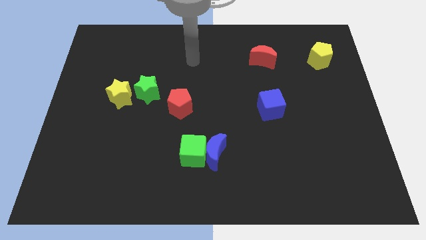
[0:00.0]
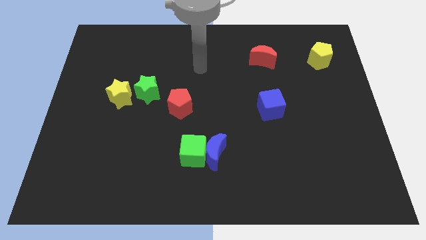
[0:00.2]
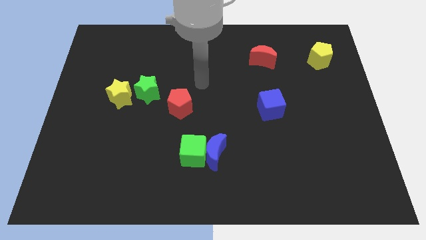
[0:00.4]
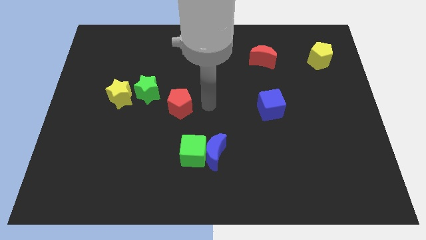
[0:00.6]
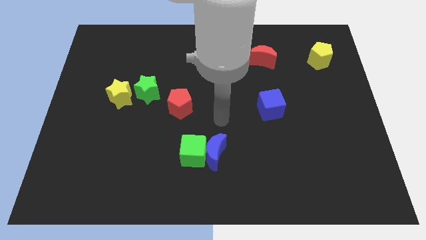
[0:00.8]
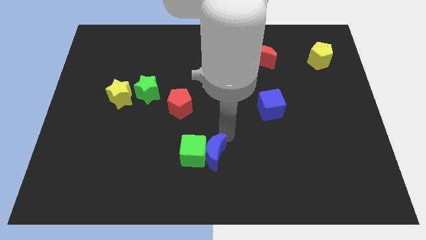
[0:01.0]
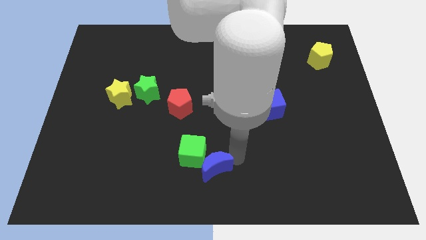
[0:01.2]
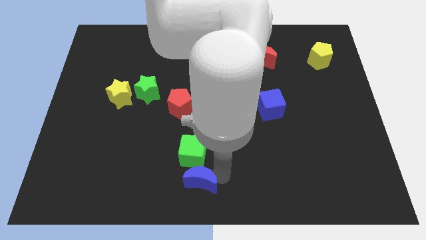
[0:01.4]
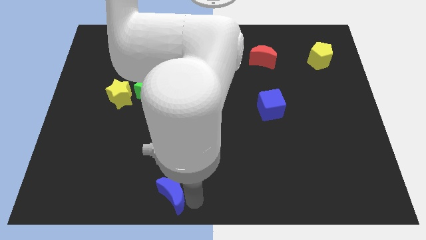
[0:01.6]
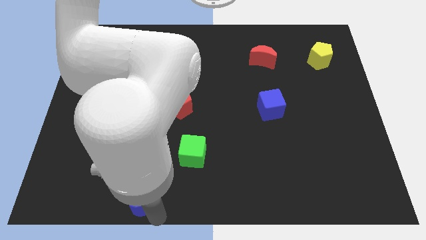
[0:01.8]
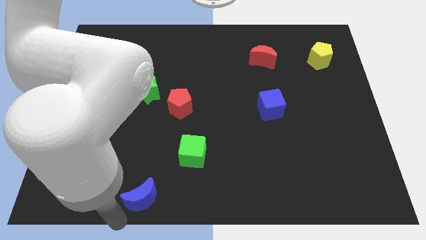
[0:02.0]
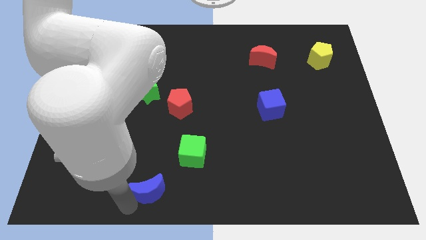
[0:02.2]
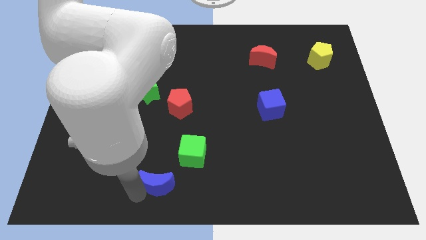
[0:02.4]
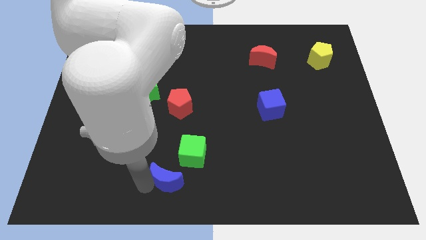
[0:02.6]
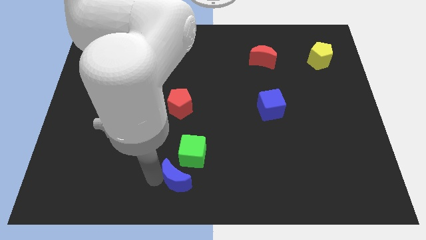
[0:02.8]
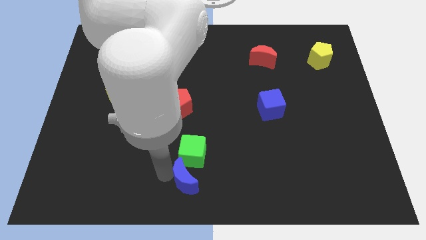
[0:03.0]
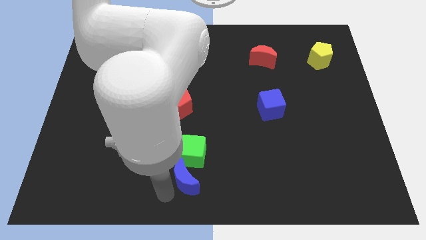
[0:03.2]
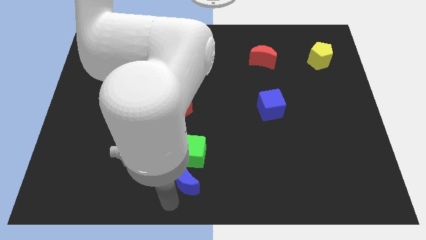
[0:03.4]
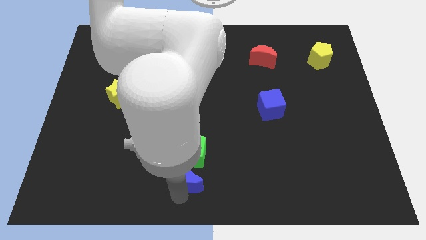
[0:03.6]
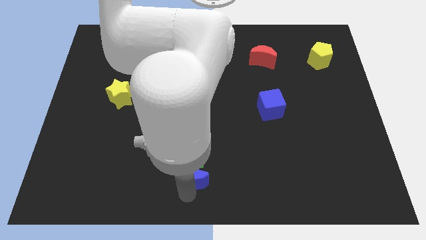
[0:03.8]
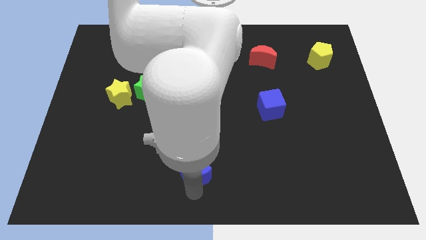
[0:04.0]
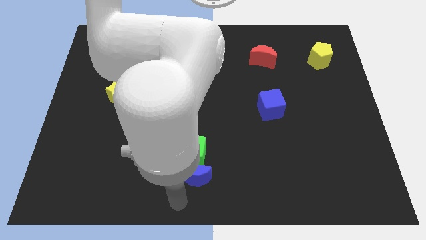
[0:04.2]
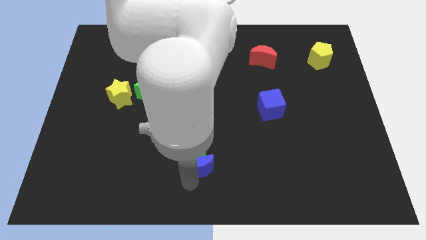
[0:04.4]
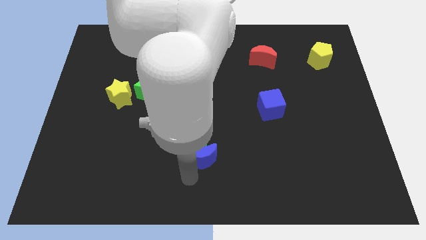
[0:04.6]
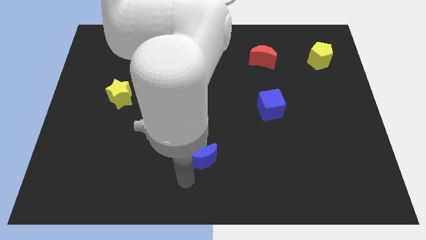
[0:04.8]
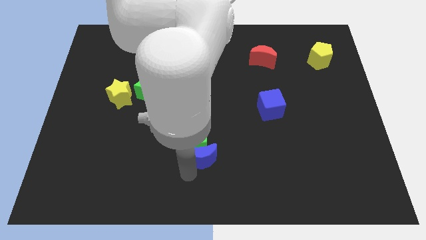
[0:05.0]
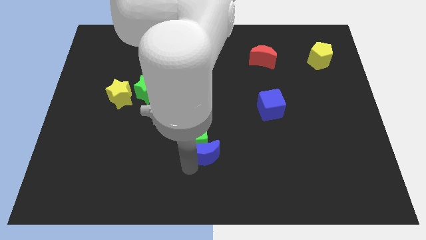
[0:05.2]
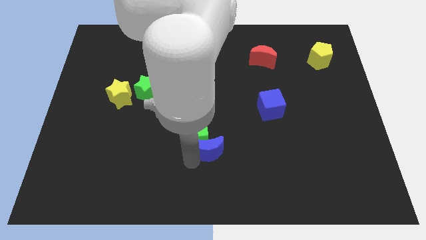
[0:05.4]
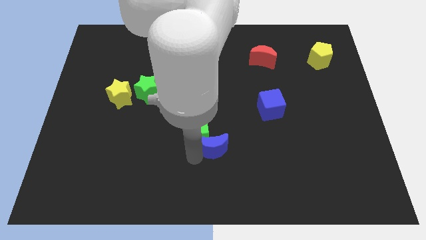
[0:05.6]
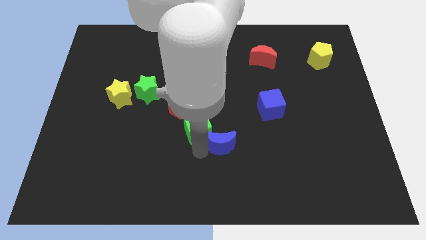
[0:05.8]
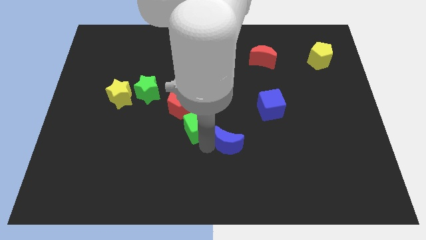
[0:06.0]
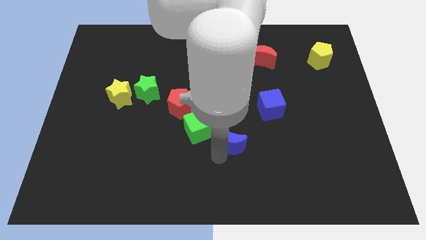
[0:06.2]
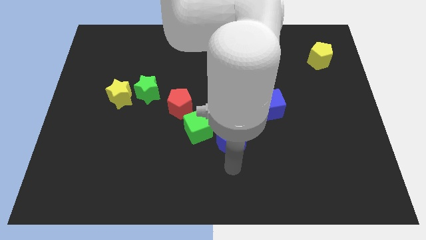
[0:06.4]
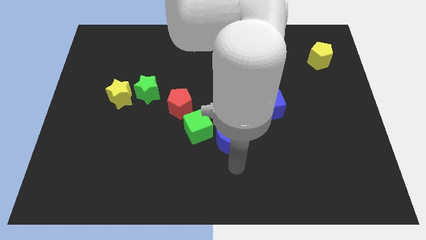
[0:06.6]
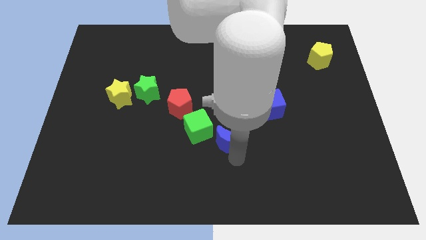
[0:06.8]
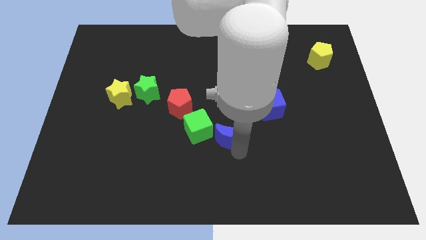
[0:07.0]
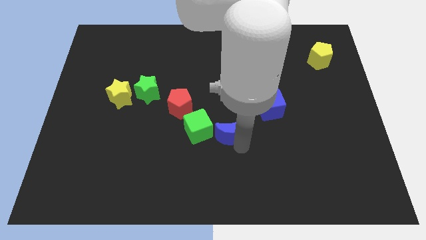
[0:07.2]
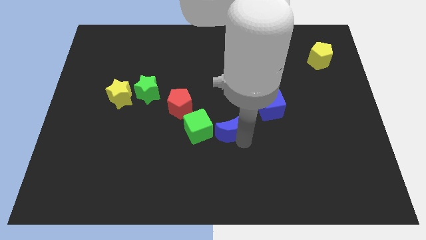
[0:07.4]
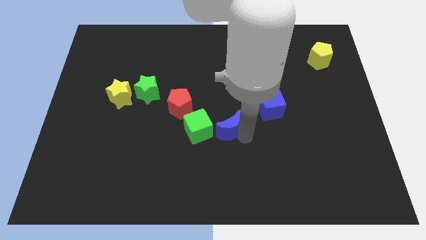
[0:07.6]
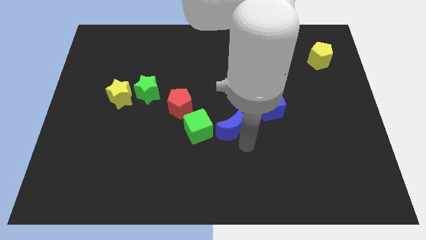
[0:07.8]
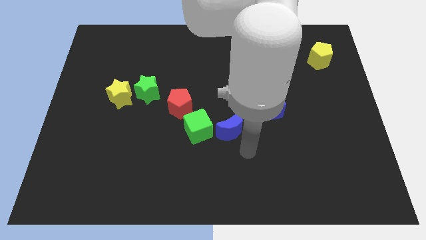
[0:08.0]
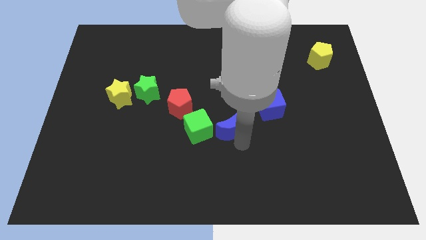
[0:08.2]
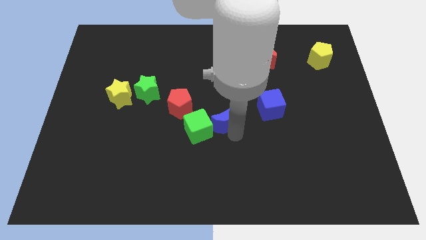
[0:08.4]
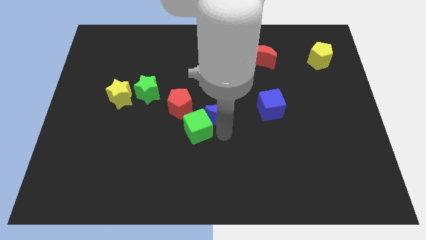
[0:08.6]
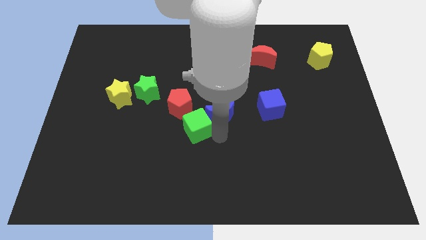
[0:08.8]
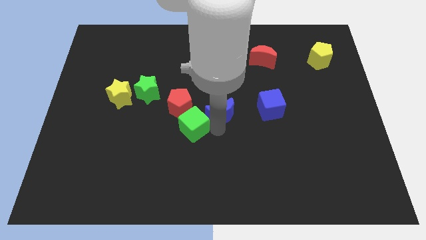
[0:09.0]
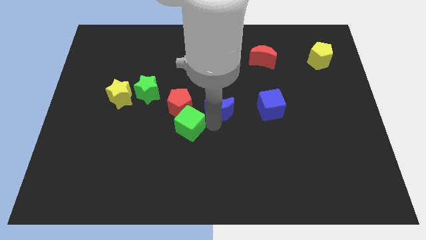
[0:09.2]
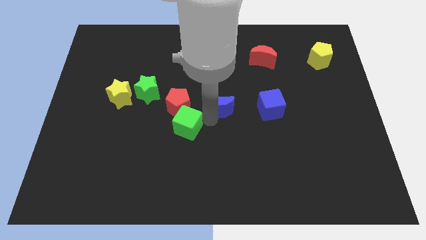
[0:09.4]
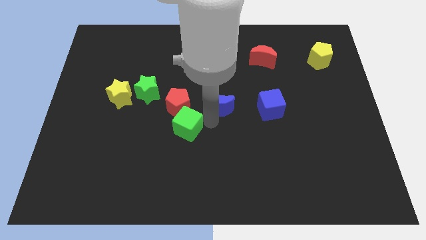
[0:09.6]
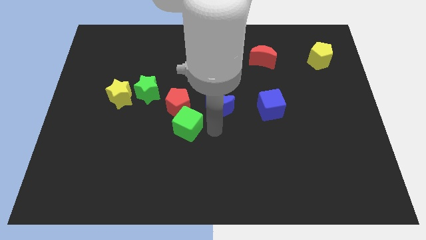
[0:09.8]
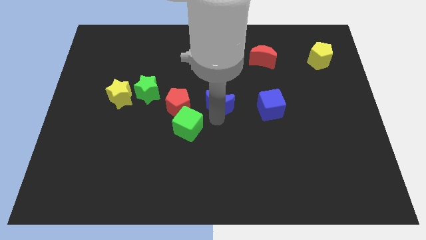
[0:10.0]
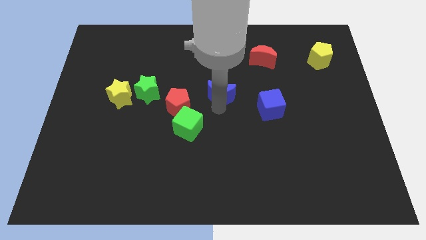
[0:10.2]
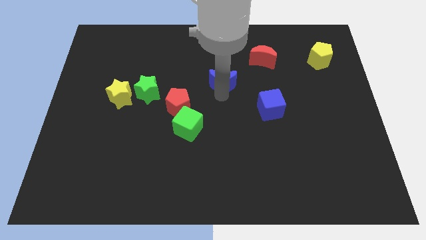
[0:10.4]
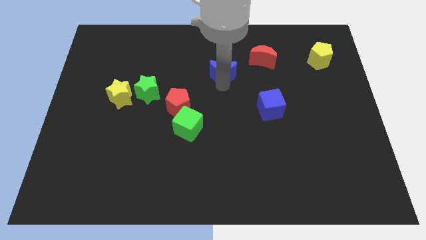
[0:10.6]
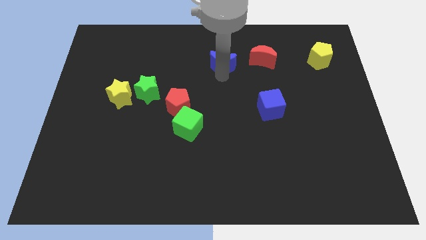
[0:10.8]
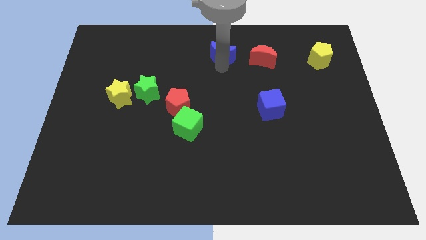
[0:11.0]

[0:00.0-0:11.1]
push the blue moon to the towards your base
